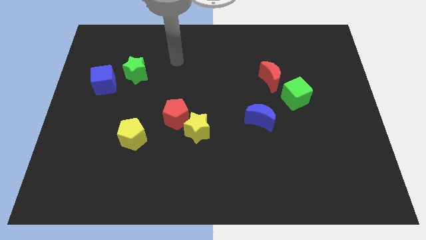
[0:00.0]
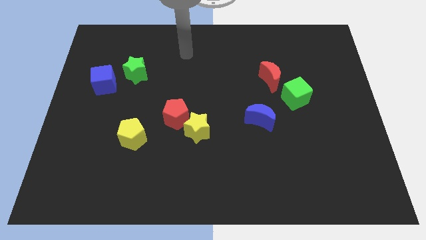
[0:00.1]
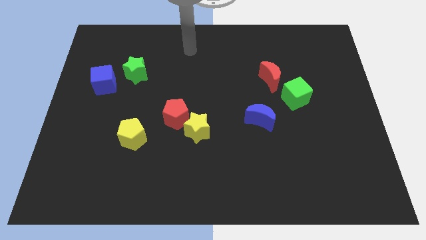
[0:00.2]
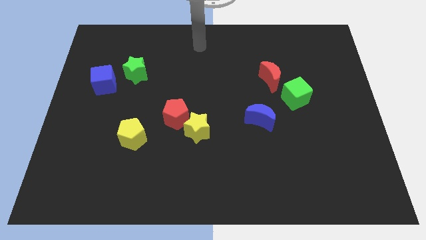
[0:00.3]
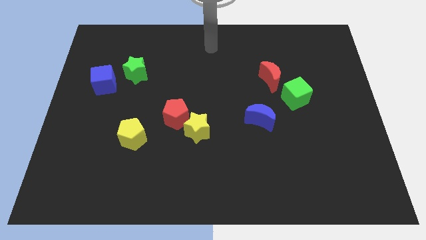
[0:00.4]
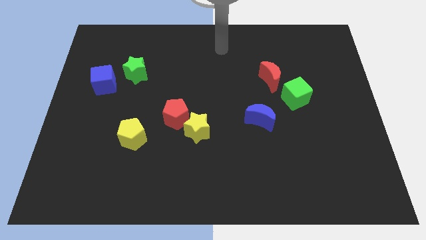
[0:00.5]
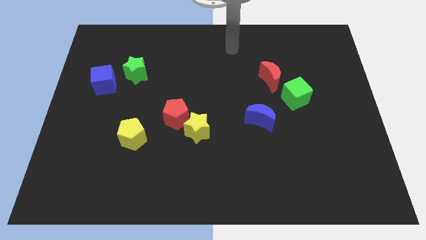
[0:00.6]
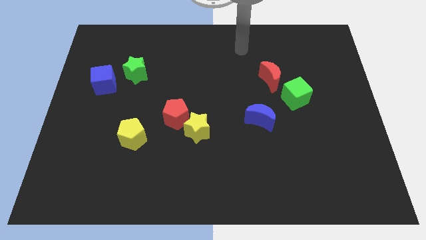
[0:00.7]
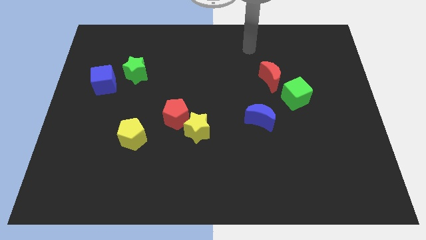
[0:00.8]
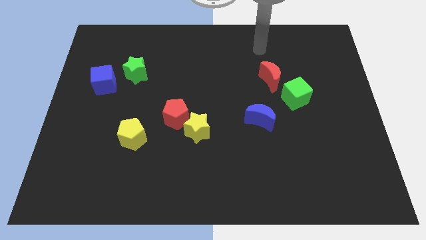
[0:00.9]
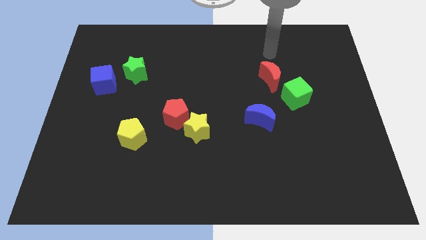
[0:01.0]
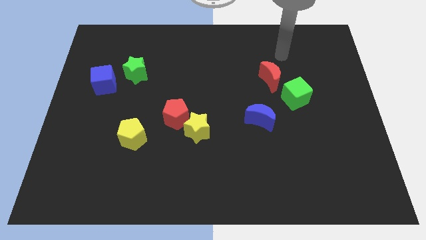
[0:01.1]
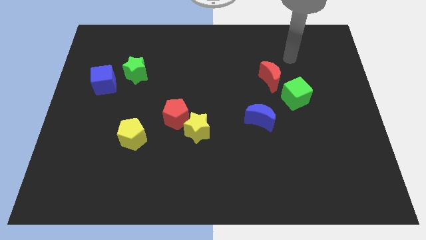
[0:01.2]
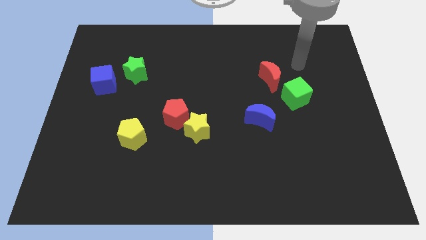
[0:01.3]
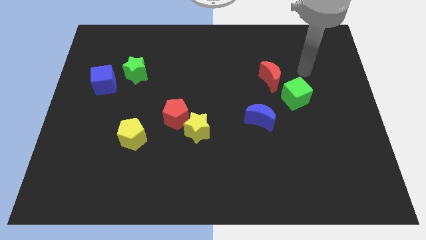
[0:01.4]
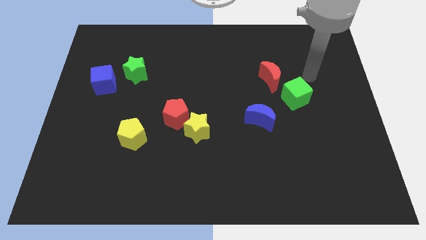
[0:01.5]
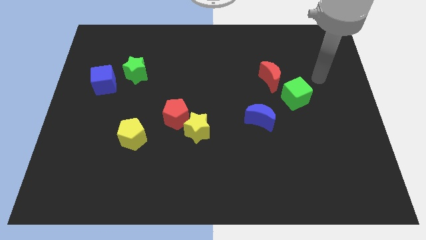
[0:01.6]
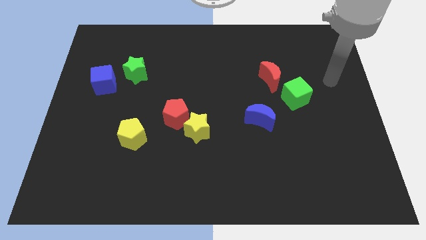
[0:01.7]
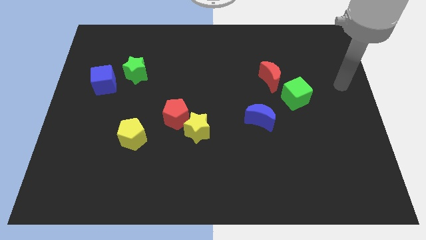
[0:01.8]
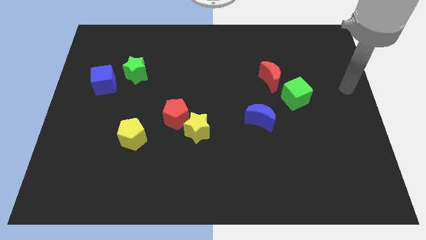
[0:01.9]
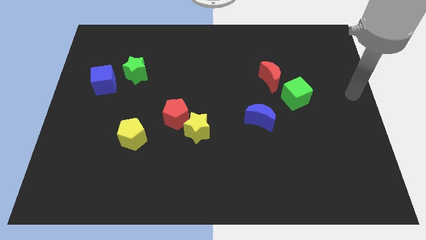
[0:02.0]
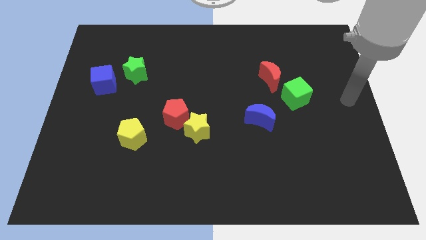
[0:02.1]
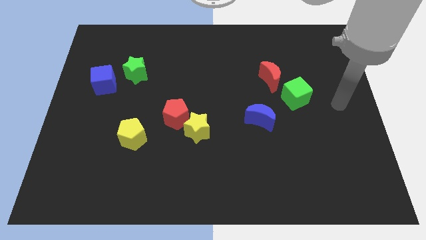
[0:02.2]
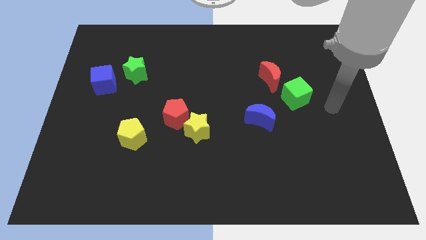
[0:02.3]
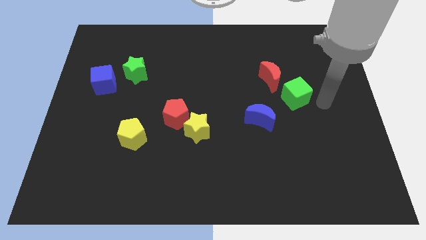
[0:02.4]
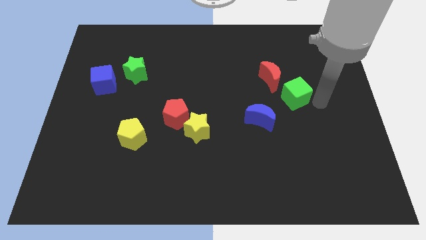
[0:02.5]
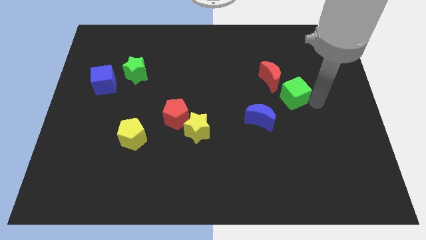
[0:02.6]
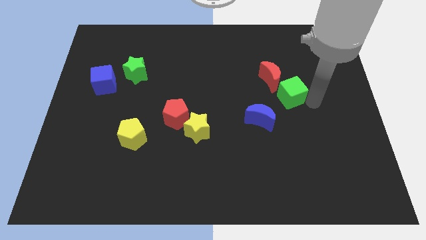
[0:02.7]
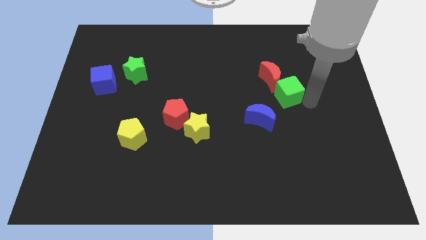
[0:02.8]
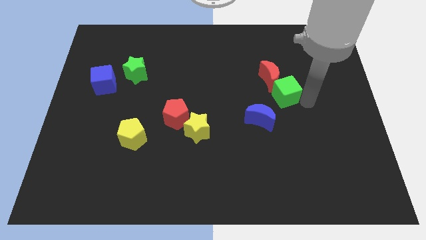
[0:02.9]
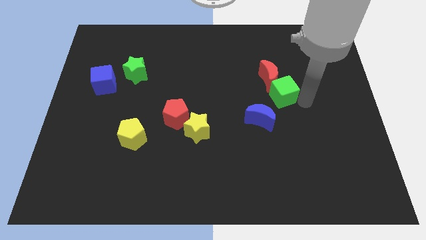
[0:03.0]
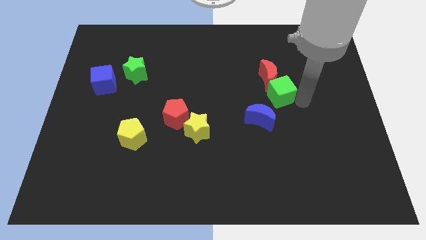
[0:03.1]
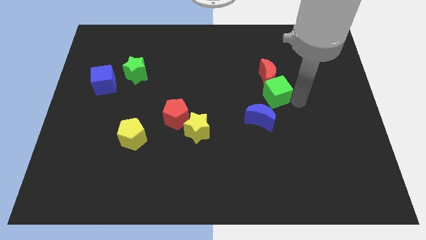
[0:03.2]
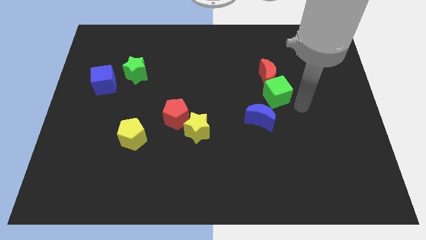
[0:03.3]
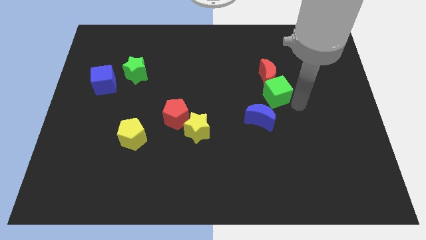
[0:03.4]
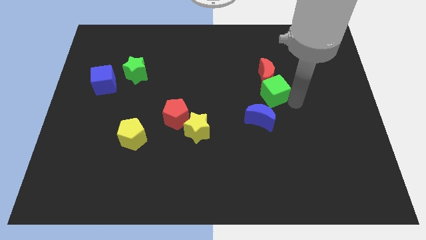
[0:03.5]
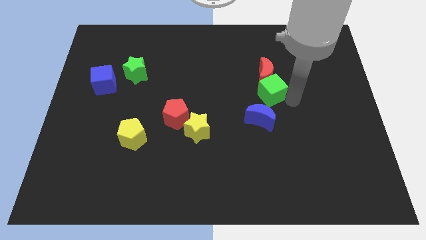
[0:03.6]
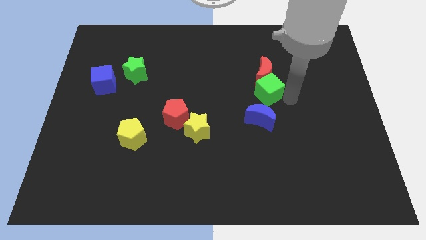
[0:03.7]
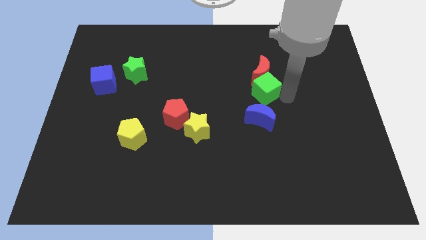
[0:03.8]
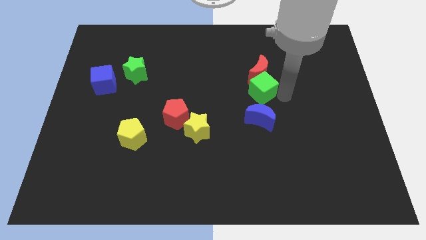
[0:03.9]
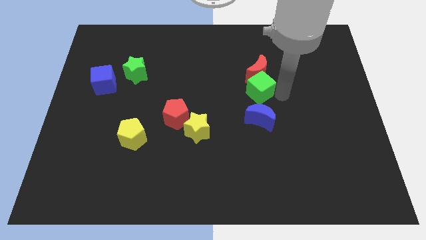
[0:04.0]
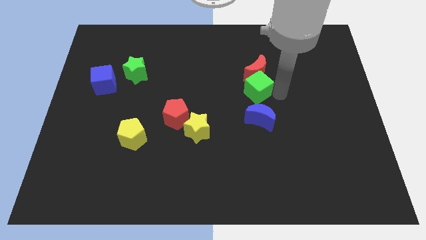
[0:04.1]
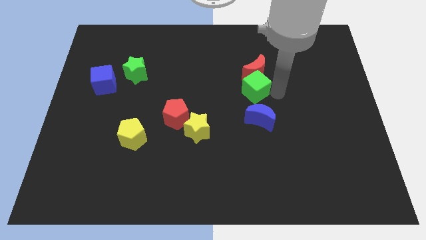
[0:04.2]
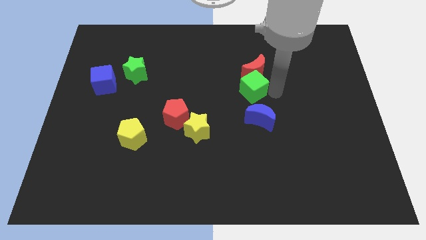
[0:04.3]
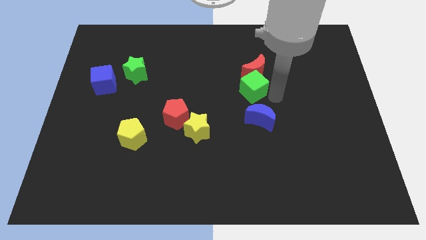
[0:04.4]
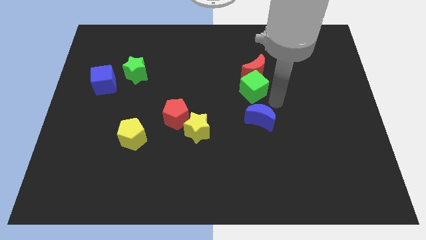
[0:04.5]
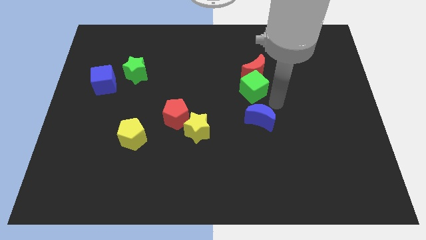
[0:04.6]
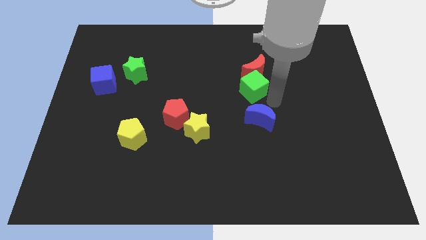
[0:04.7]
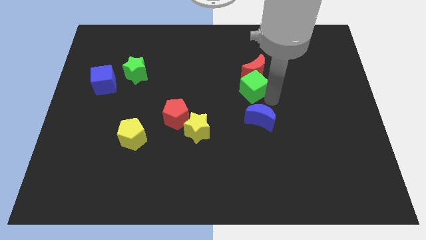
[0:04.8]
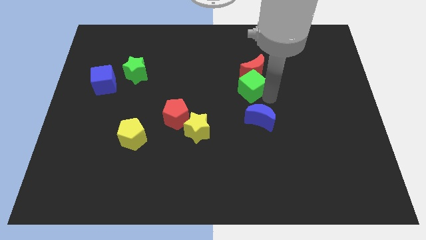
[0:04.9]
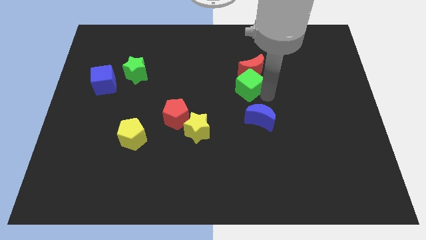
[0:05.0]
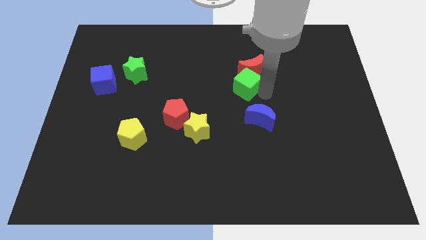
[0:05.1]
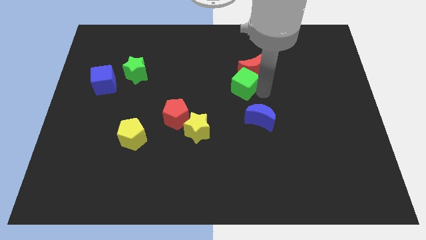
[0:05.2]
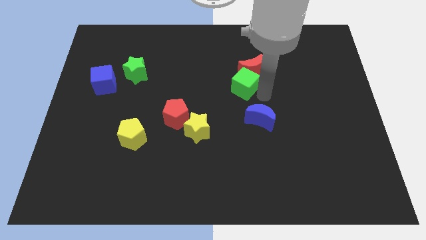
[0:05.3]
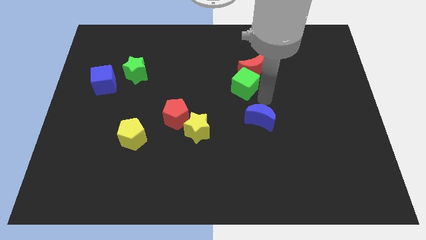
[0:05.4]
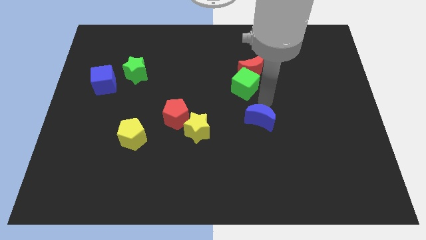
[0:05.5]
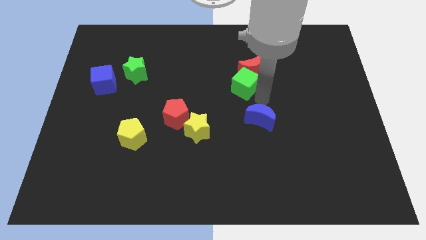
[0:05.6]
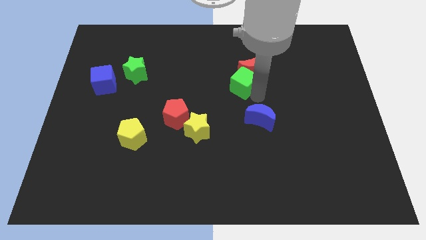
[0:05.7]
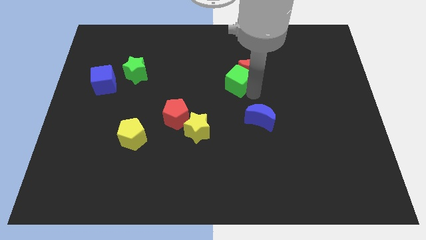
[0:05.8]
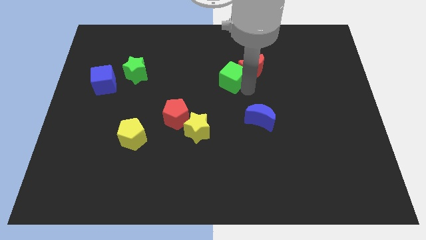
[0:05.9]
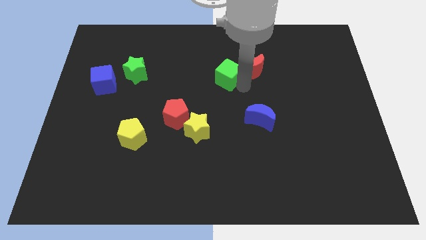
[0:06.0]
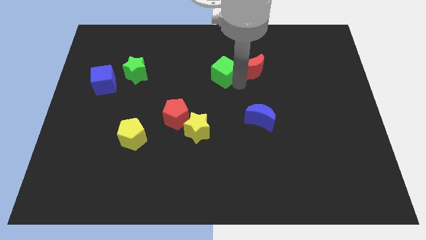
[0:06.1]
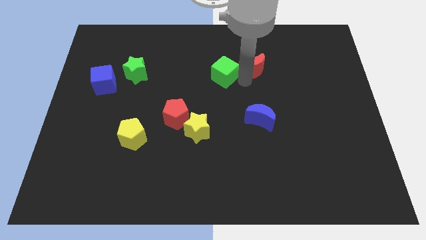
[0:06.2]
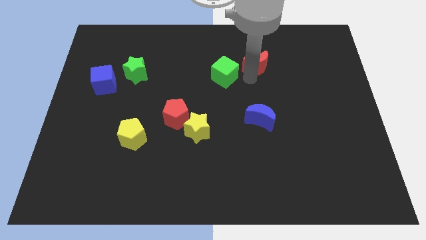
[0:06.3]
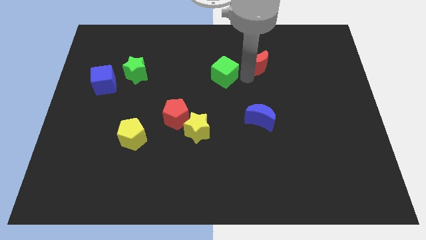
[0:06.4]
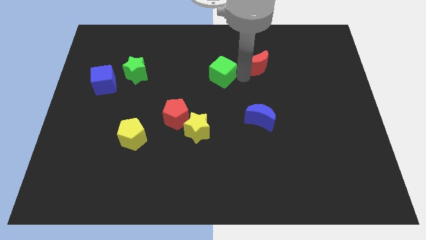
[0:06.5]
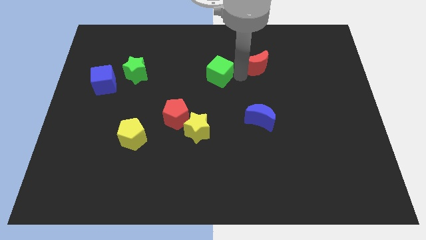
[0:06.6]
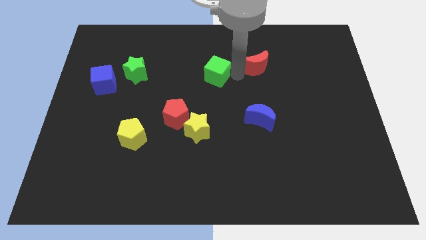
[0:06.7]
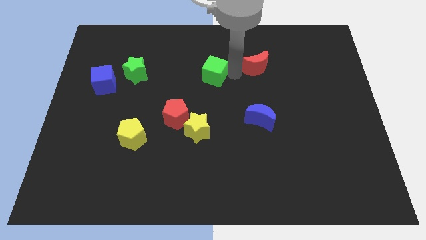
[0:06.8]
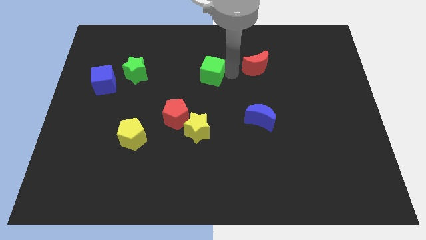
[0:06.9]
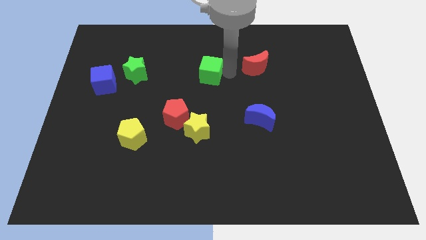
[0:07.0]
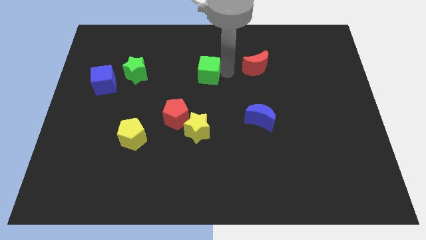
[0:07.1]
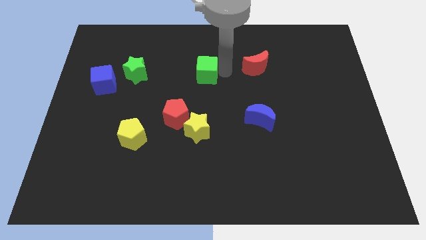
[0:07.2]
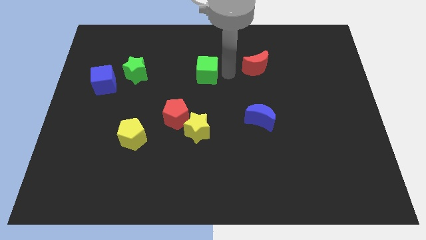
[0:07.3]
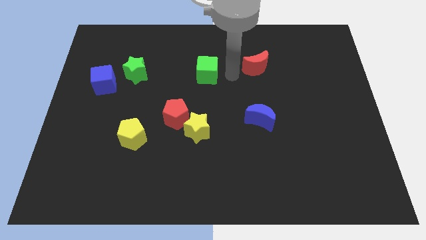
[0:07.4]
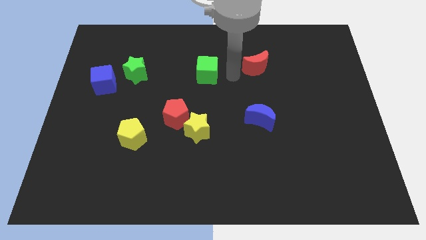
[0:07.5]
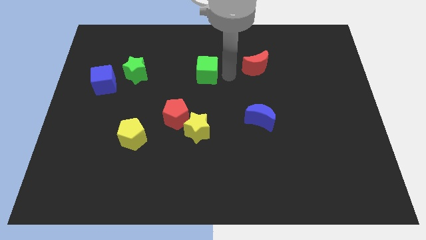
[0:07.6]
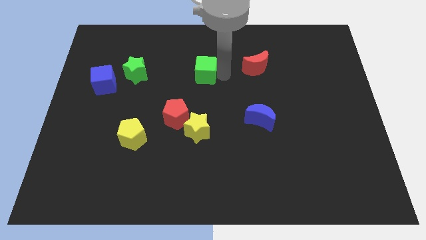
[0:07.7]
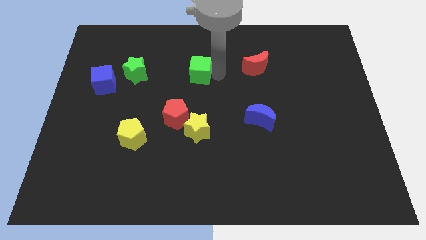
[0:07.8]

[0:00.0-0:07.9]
put the green cube to the right side of the green star
